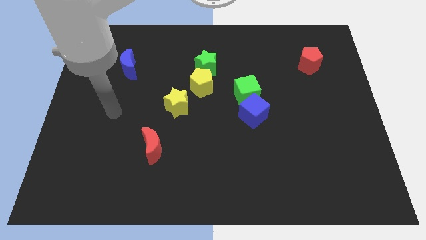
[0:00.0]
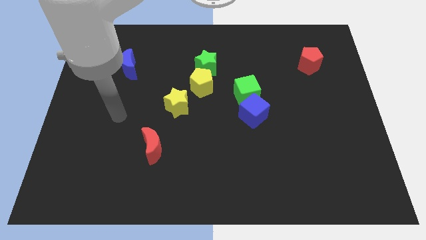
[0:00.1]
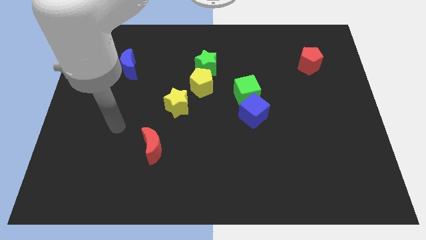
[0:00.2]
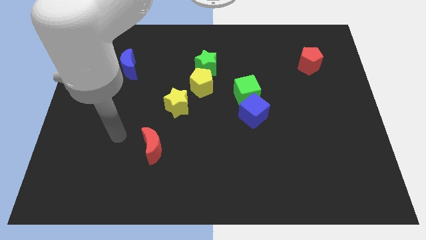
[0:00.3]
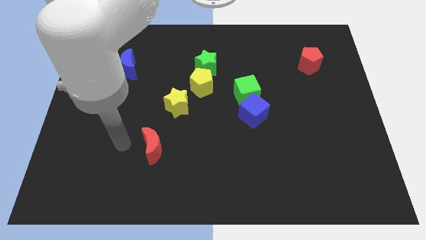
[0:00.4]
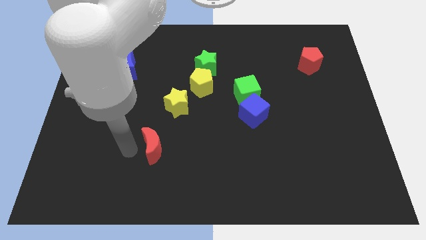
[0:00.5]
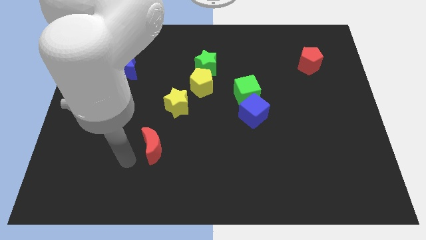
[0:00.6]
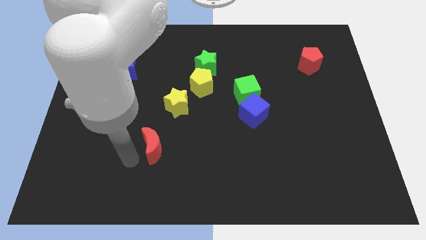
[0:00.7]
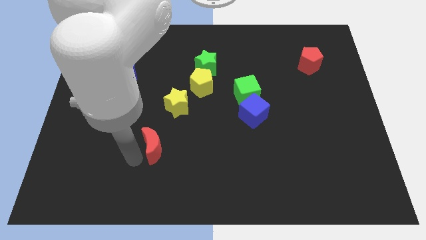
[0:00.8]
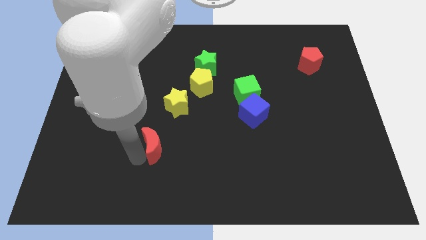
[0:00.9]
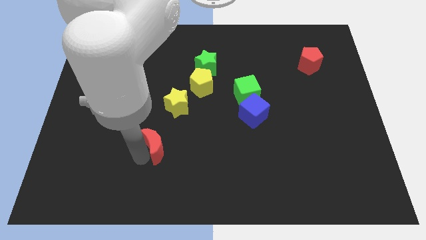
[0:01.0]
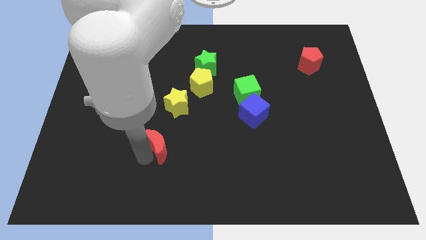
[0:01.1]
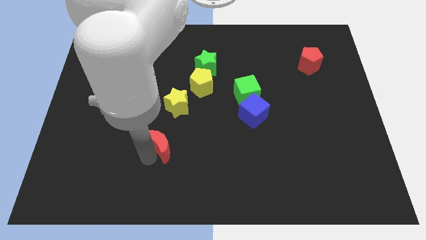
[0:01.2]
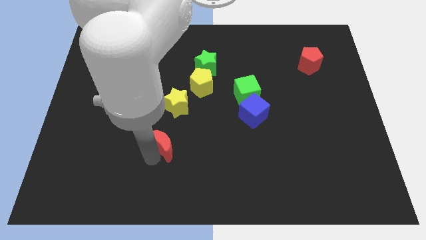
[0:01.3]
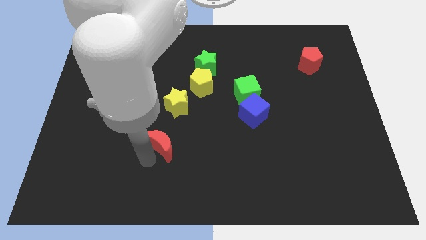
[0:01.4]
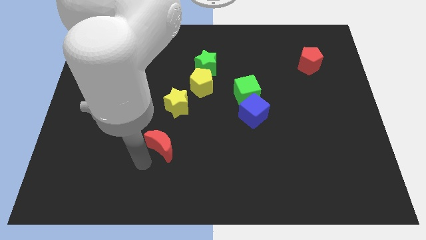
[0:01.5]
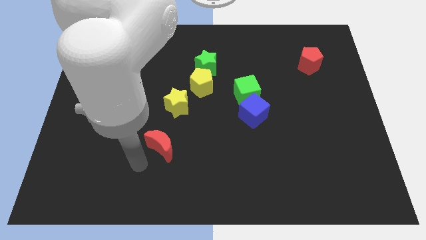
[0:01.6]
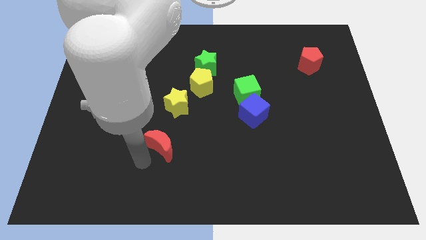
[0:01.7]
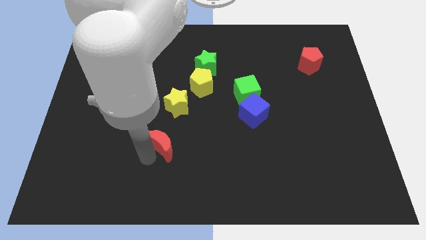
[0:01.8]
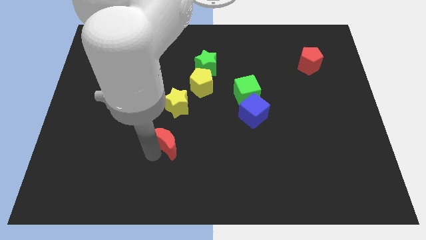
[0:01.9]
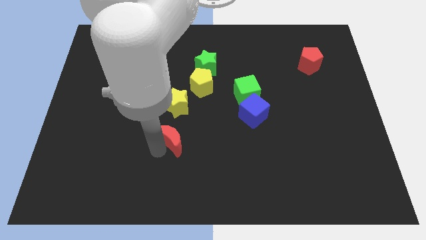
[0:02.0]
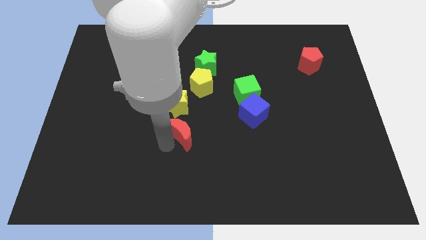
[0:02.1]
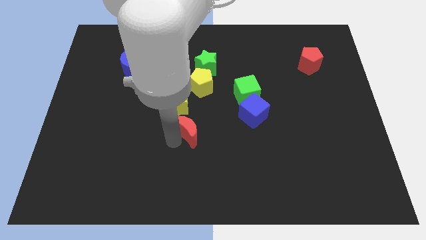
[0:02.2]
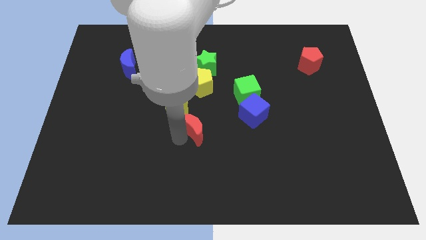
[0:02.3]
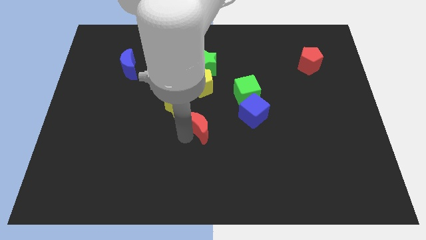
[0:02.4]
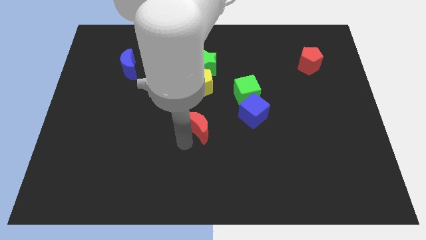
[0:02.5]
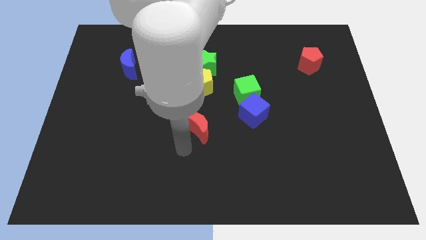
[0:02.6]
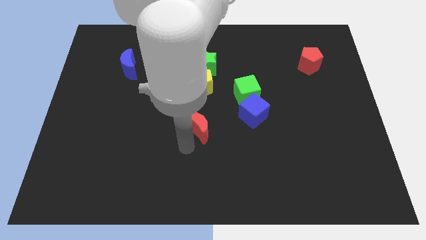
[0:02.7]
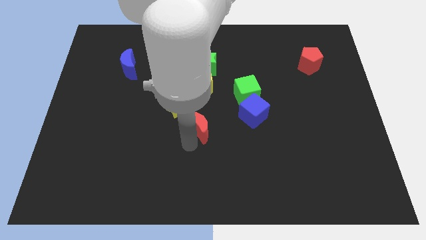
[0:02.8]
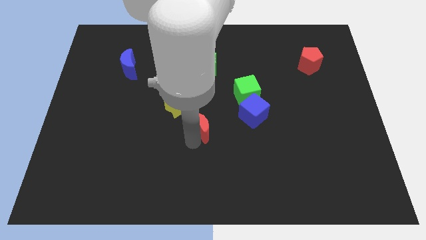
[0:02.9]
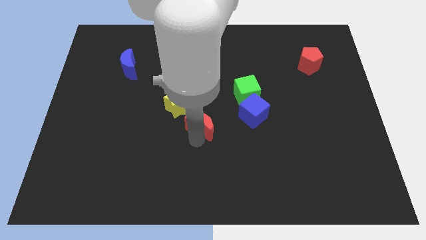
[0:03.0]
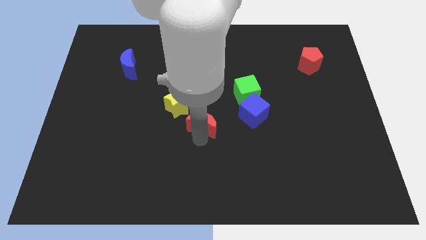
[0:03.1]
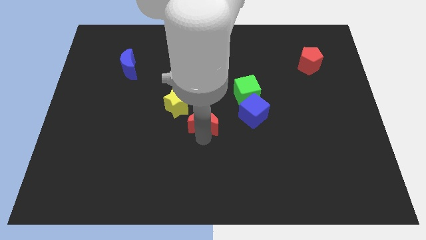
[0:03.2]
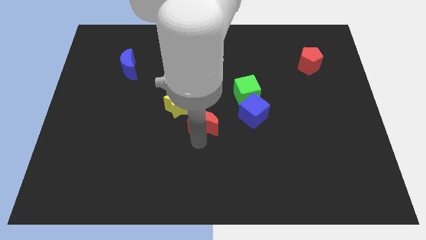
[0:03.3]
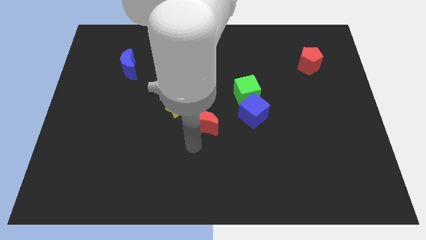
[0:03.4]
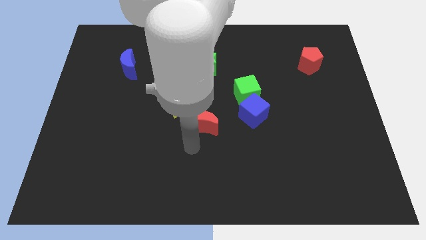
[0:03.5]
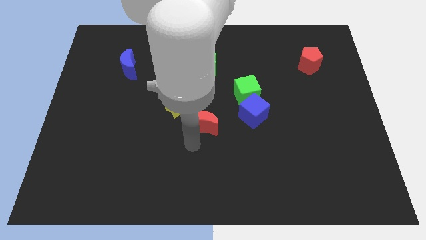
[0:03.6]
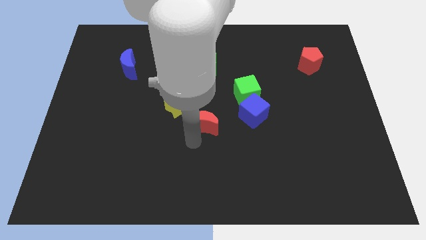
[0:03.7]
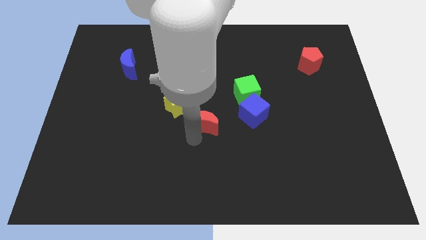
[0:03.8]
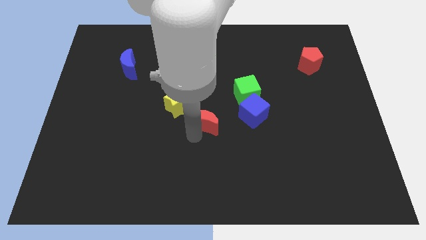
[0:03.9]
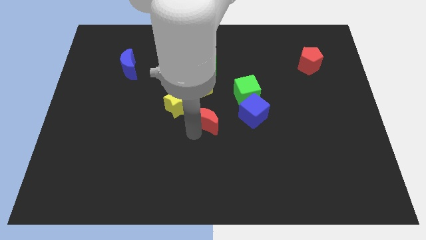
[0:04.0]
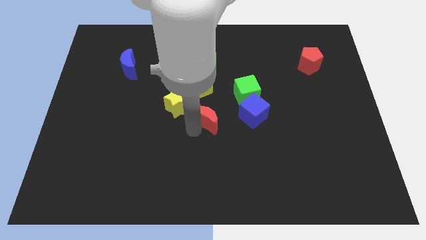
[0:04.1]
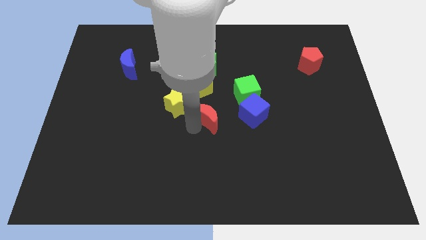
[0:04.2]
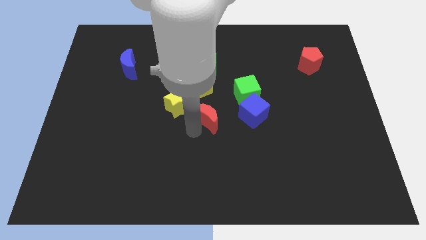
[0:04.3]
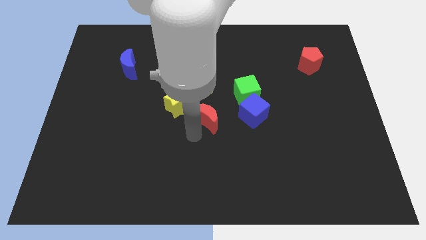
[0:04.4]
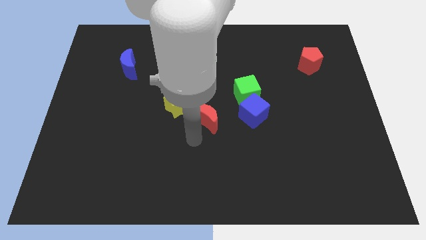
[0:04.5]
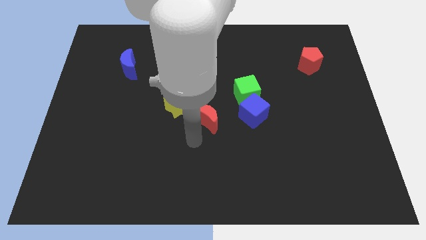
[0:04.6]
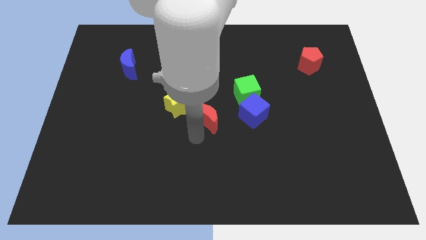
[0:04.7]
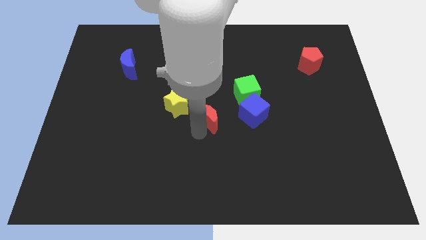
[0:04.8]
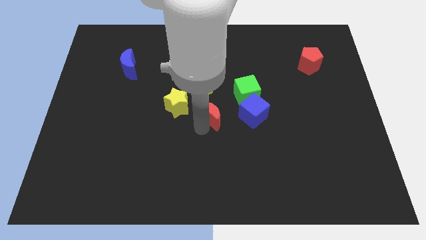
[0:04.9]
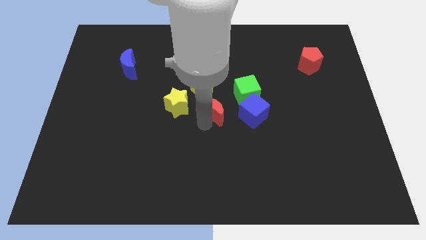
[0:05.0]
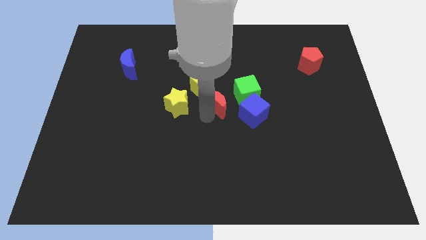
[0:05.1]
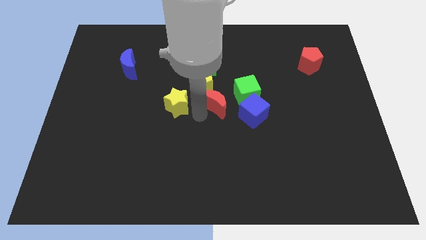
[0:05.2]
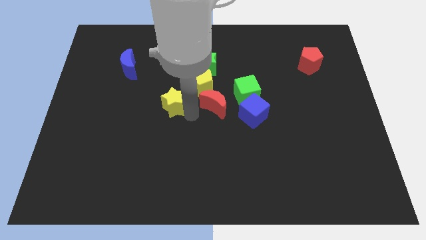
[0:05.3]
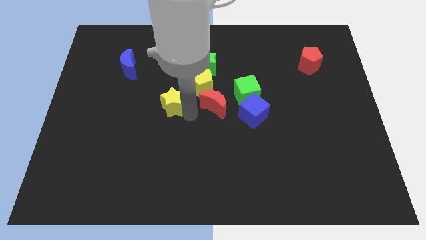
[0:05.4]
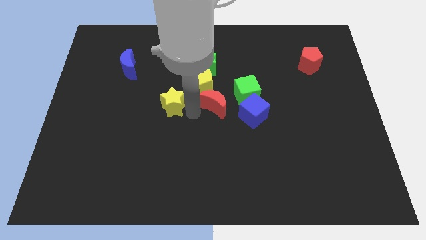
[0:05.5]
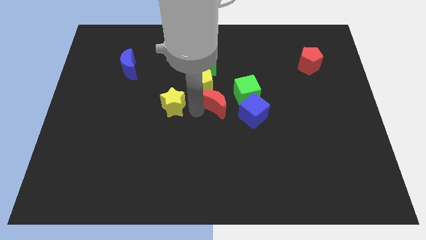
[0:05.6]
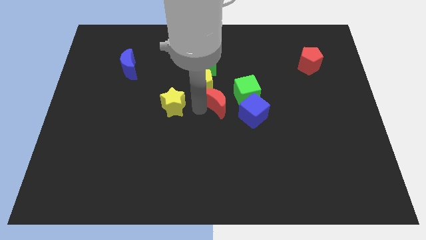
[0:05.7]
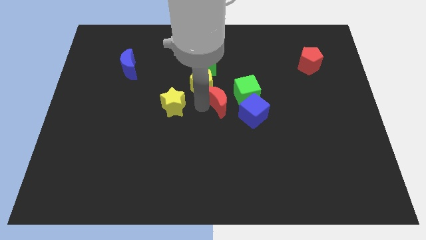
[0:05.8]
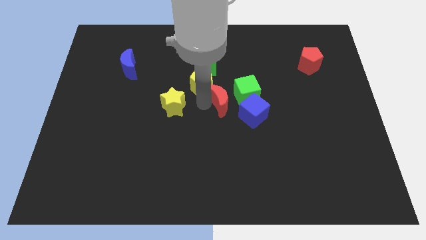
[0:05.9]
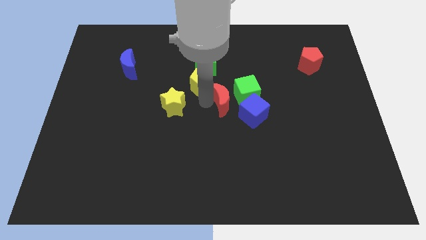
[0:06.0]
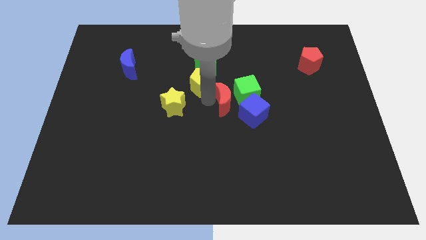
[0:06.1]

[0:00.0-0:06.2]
push the red moon next to the green cube

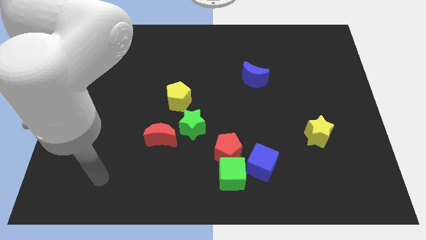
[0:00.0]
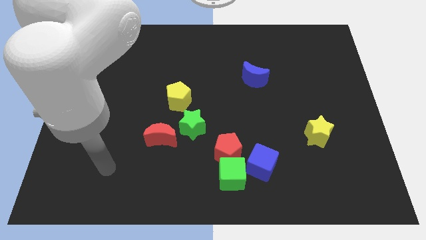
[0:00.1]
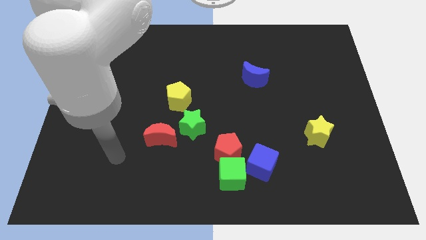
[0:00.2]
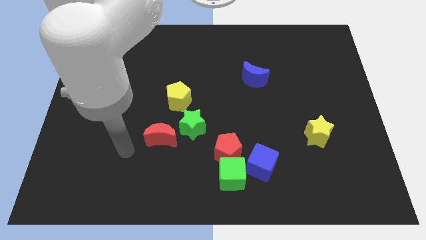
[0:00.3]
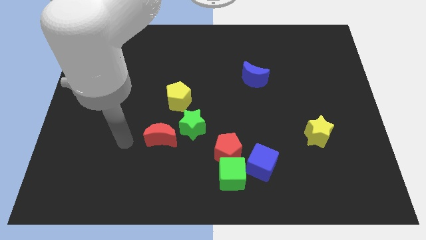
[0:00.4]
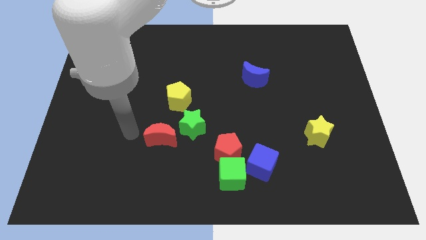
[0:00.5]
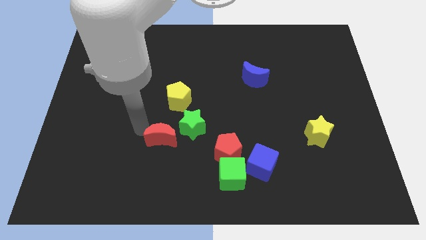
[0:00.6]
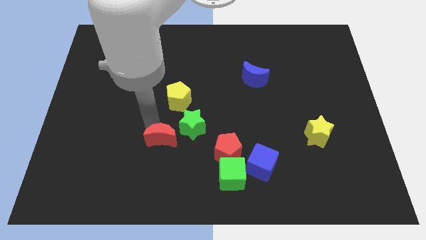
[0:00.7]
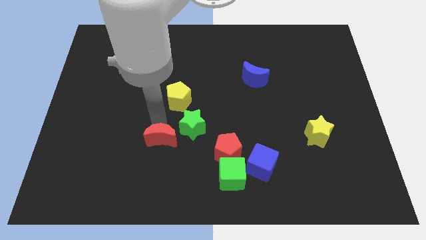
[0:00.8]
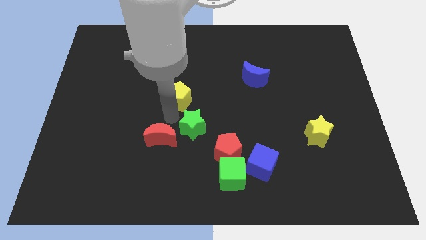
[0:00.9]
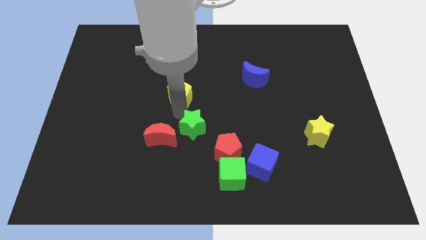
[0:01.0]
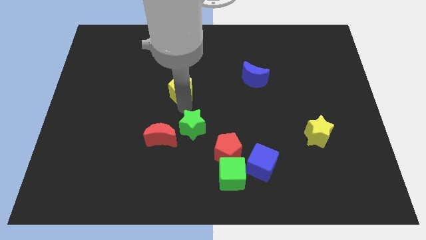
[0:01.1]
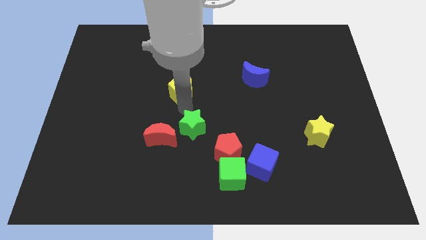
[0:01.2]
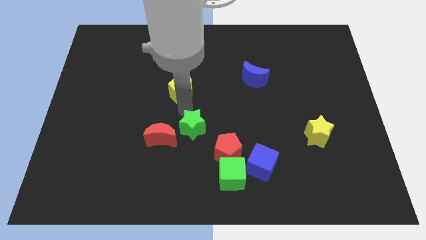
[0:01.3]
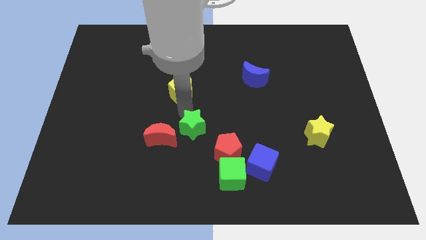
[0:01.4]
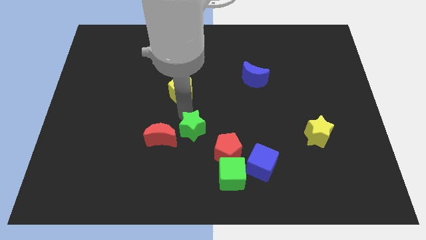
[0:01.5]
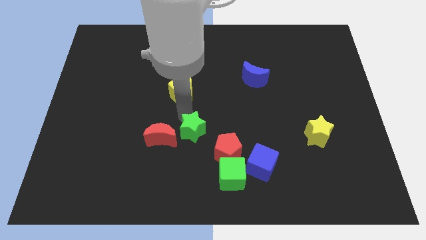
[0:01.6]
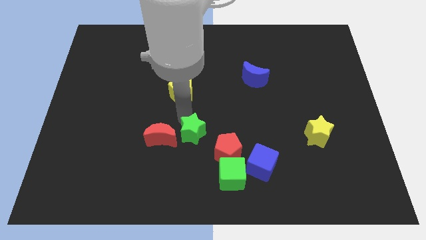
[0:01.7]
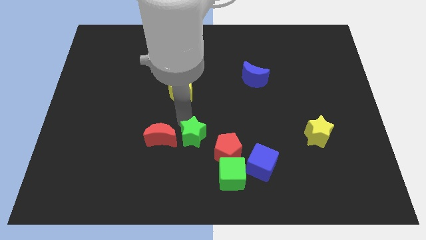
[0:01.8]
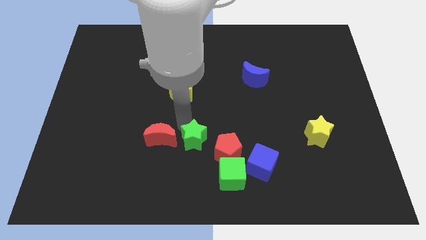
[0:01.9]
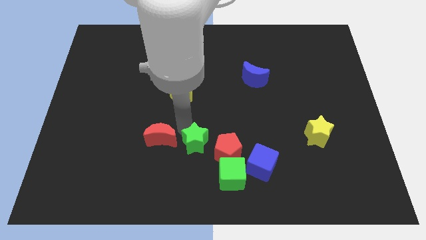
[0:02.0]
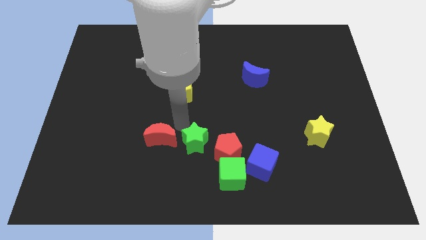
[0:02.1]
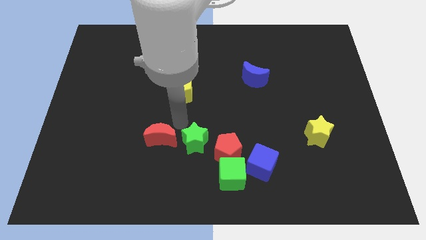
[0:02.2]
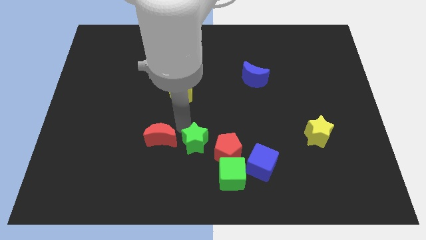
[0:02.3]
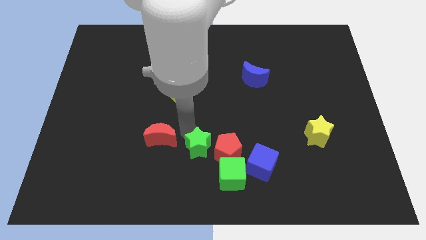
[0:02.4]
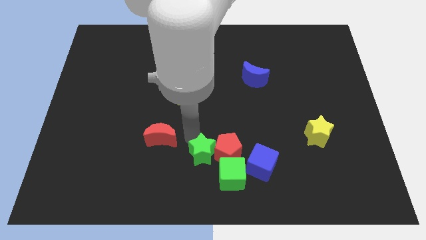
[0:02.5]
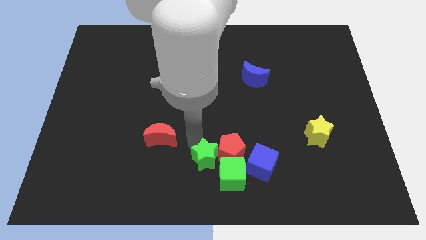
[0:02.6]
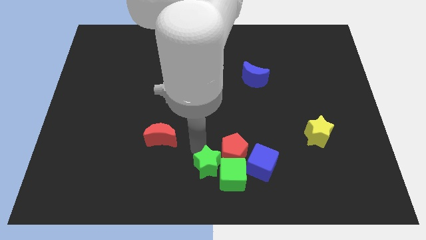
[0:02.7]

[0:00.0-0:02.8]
slide the green star towards the green cube
